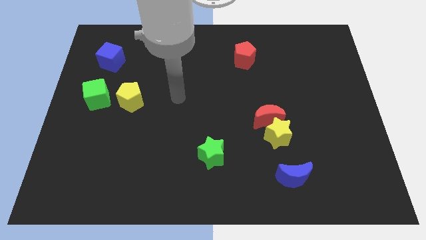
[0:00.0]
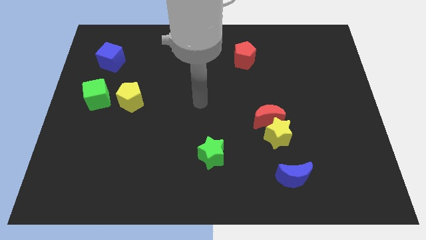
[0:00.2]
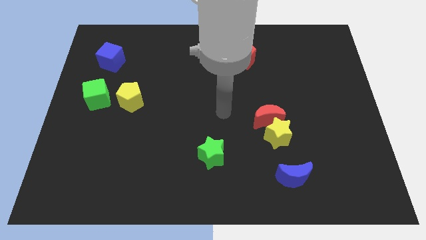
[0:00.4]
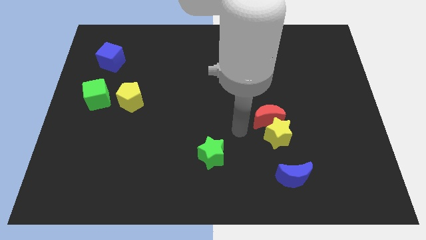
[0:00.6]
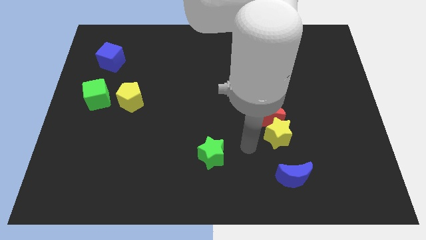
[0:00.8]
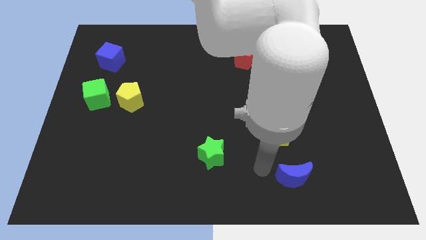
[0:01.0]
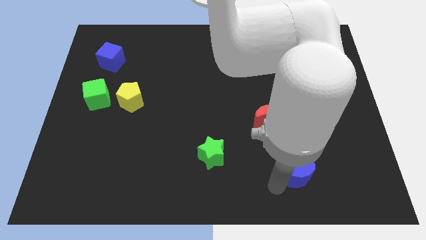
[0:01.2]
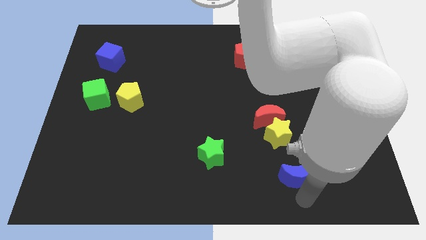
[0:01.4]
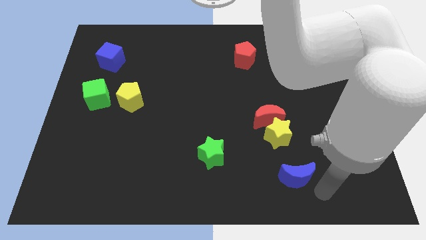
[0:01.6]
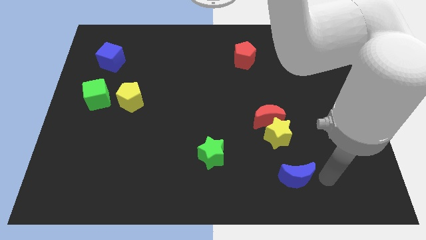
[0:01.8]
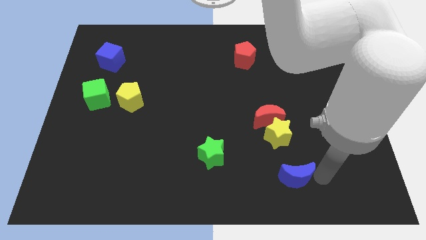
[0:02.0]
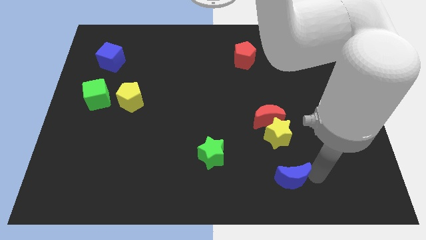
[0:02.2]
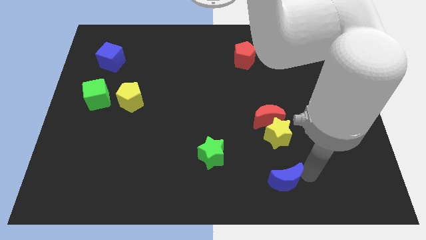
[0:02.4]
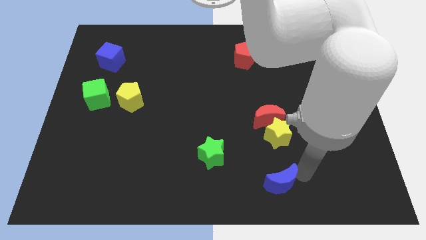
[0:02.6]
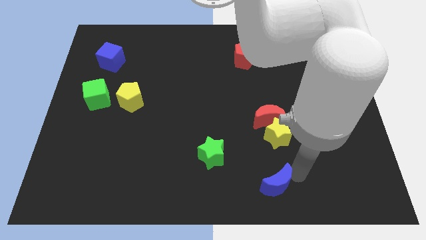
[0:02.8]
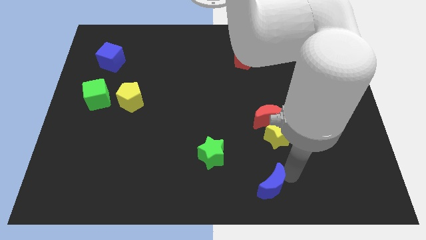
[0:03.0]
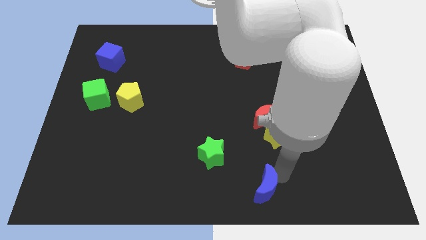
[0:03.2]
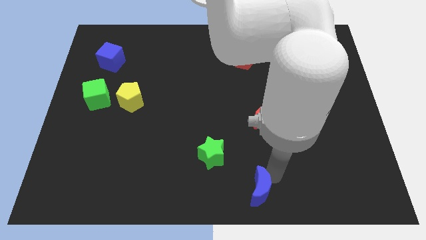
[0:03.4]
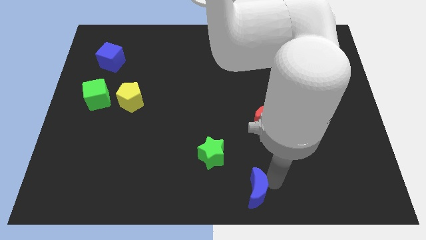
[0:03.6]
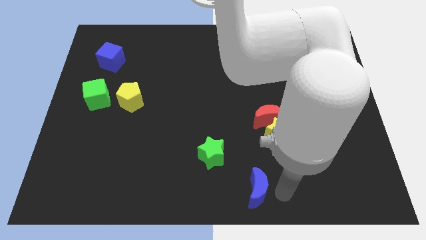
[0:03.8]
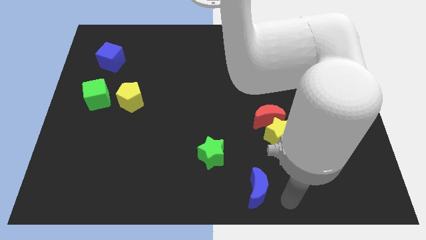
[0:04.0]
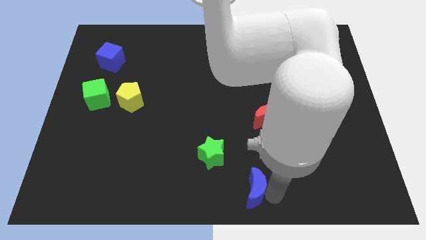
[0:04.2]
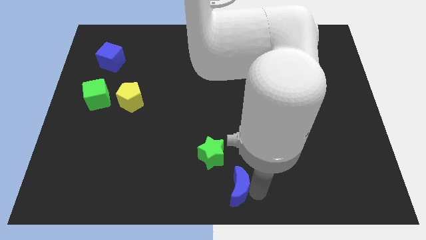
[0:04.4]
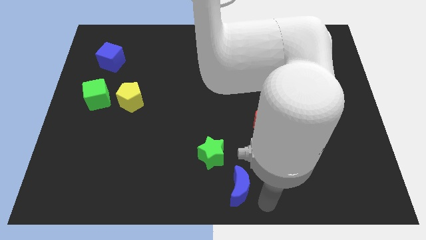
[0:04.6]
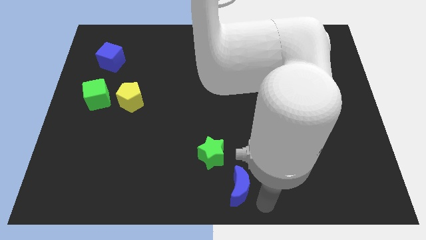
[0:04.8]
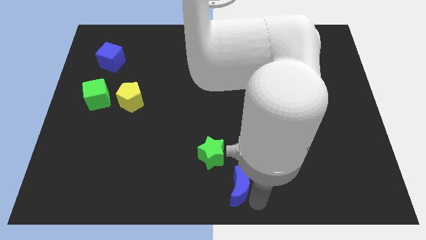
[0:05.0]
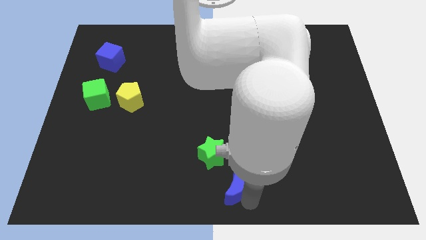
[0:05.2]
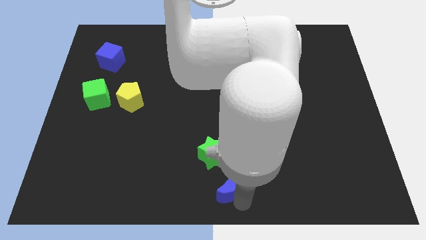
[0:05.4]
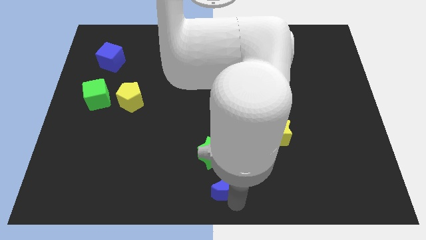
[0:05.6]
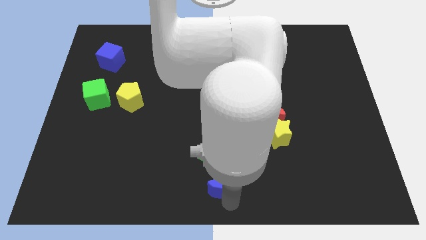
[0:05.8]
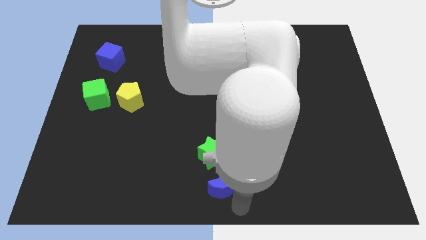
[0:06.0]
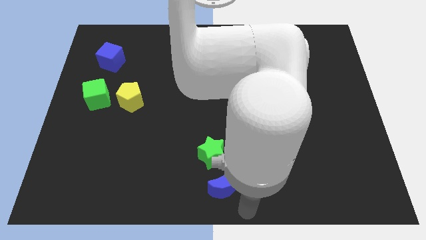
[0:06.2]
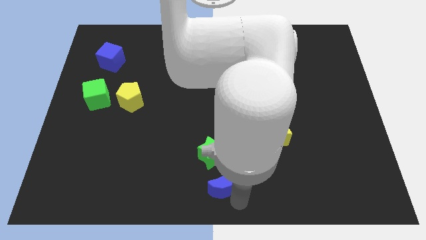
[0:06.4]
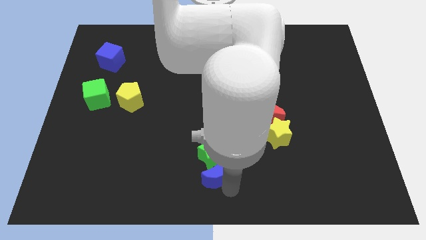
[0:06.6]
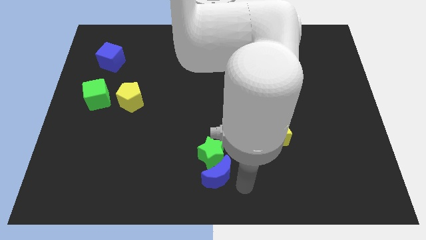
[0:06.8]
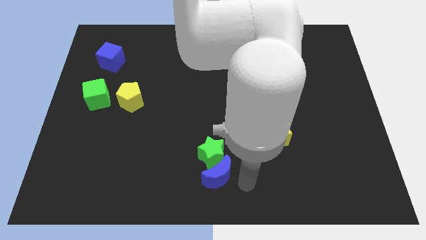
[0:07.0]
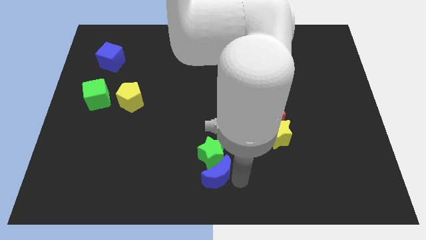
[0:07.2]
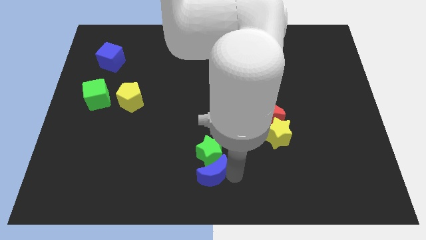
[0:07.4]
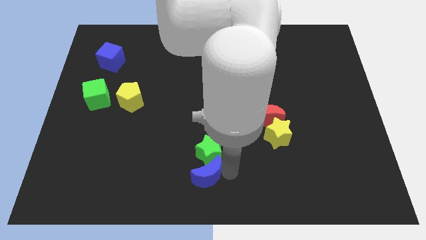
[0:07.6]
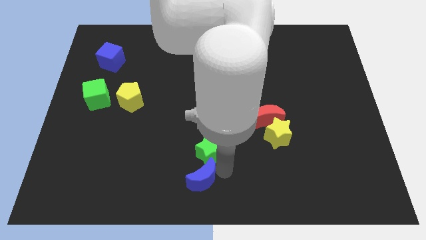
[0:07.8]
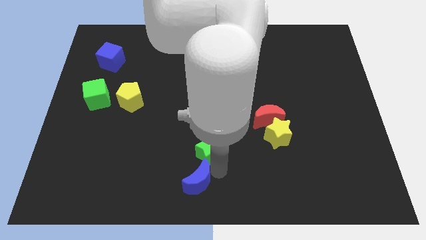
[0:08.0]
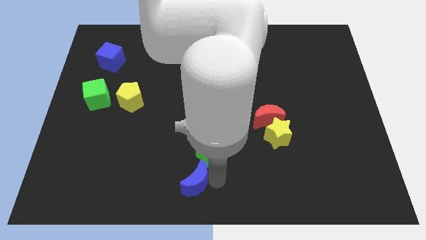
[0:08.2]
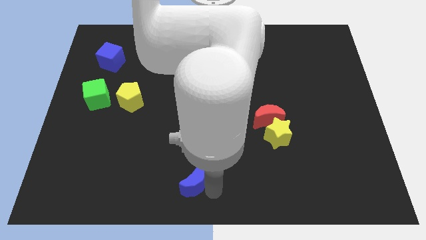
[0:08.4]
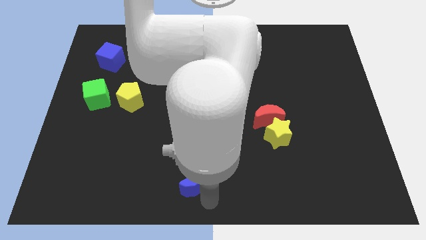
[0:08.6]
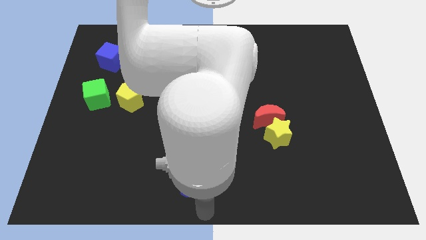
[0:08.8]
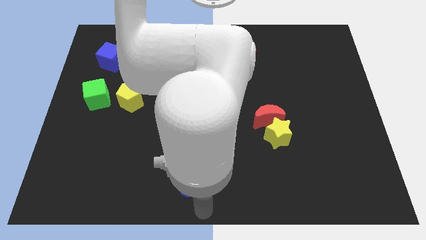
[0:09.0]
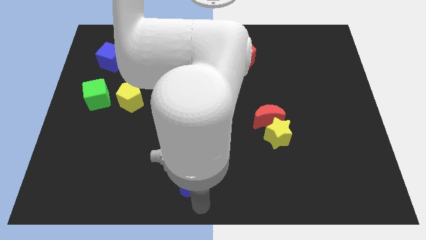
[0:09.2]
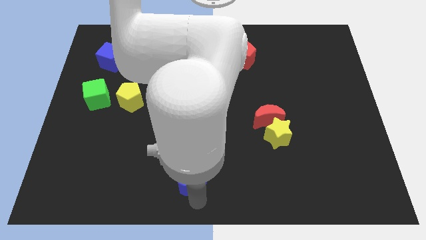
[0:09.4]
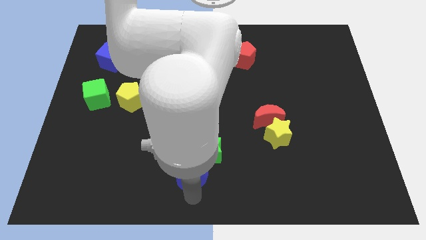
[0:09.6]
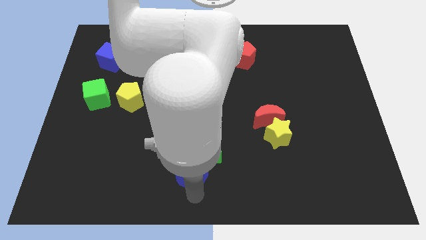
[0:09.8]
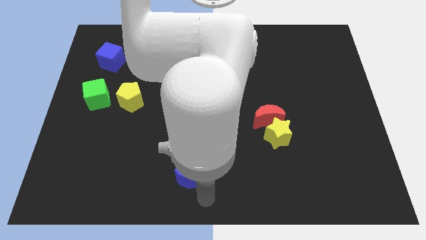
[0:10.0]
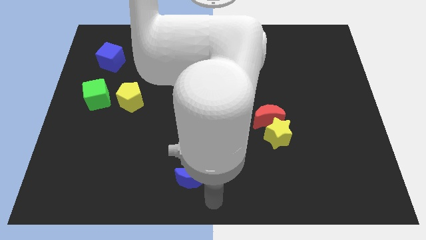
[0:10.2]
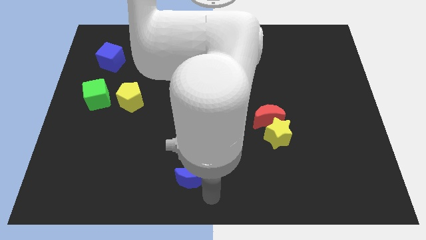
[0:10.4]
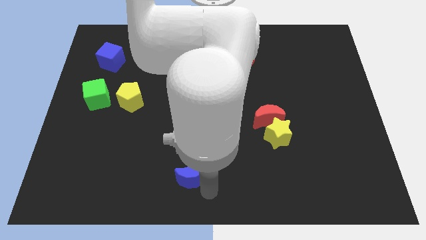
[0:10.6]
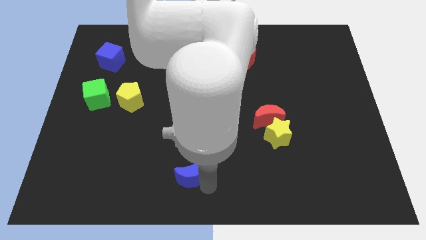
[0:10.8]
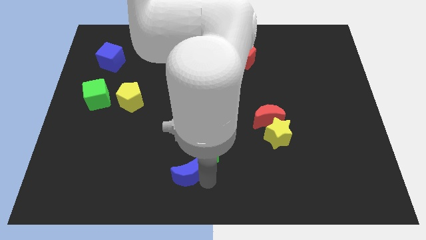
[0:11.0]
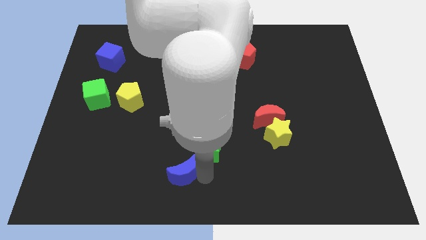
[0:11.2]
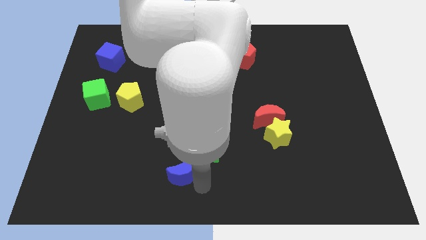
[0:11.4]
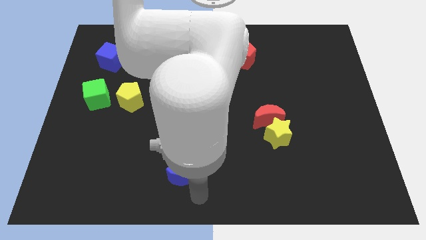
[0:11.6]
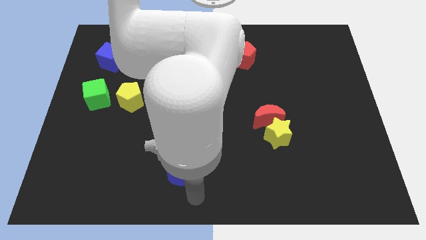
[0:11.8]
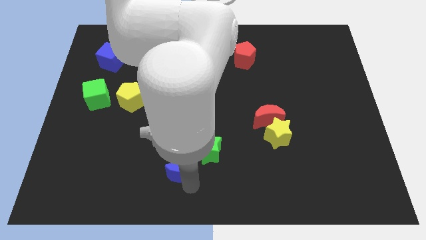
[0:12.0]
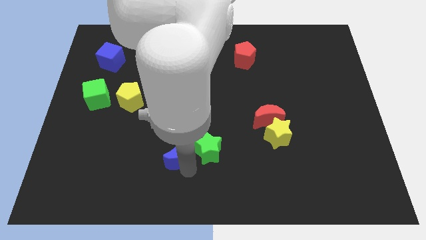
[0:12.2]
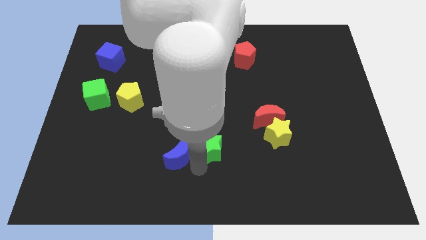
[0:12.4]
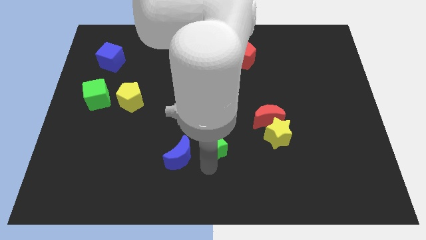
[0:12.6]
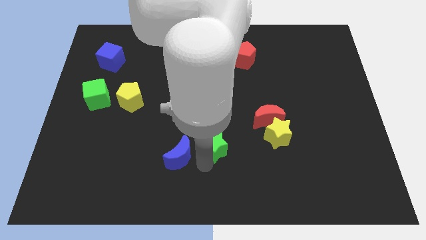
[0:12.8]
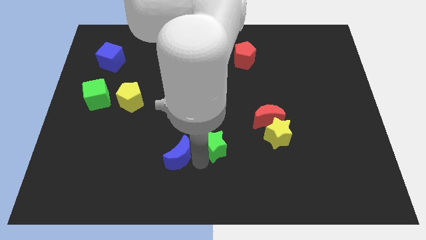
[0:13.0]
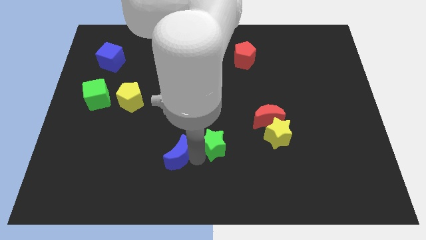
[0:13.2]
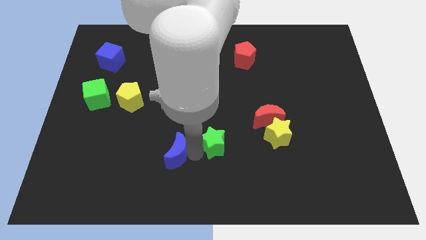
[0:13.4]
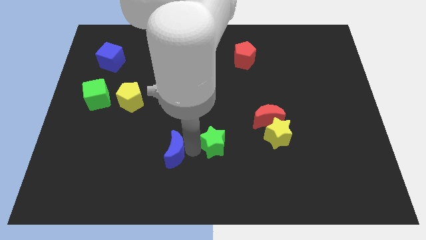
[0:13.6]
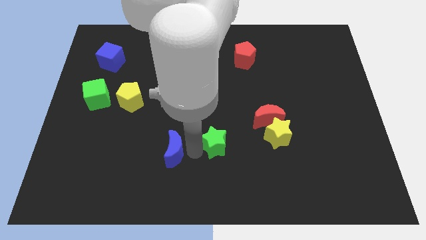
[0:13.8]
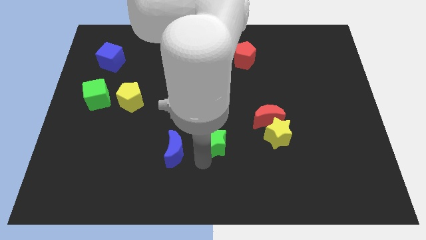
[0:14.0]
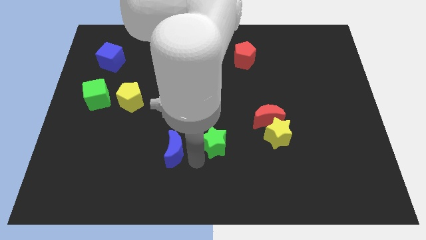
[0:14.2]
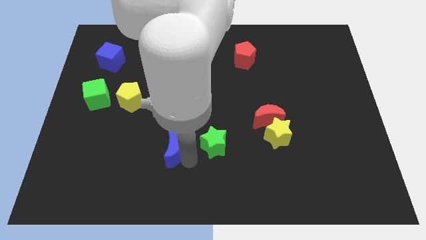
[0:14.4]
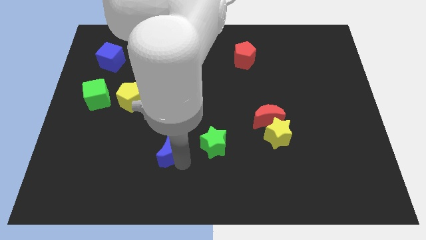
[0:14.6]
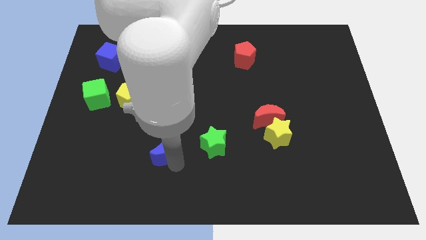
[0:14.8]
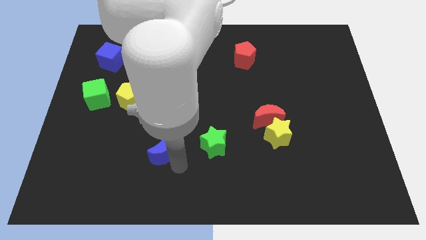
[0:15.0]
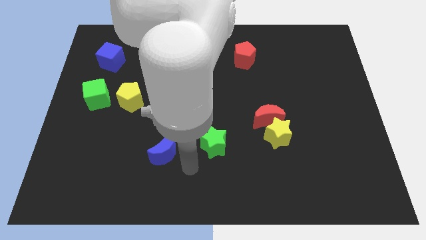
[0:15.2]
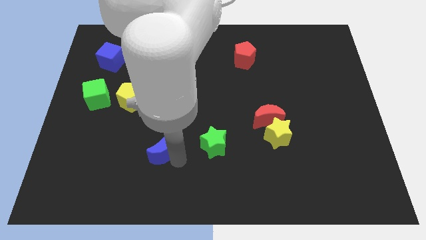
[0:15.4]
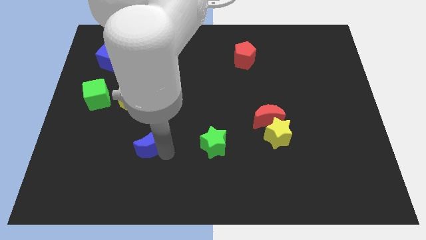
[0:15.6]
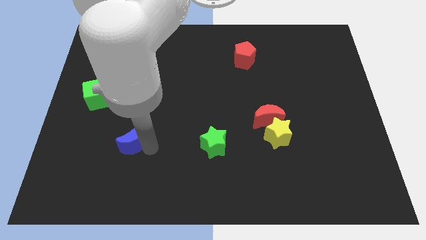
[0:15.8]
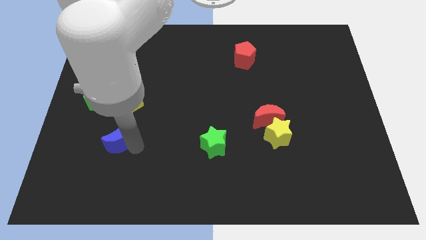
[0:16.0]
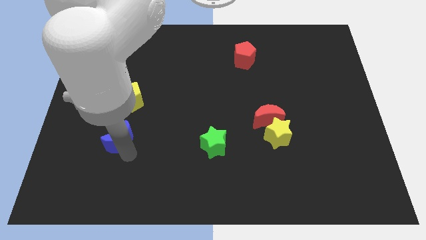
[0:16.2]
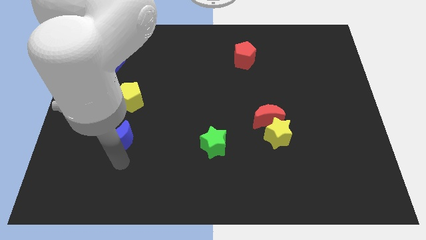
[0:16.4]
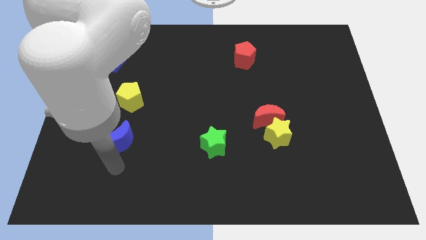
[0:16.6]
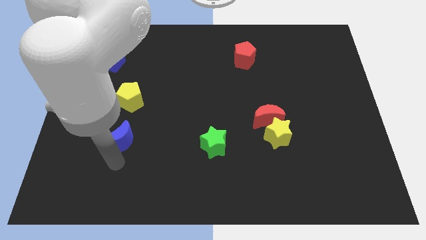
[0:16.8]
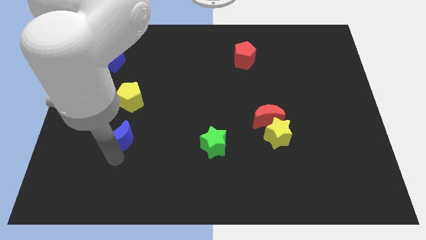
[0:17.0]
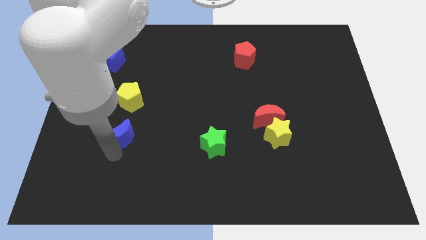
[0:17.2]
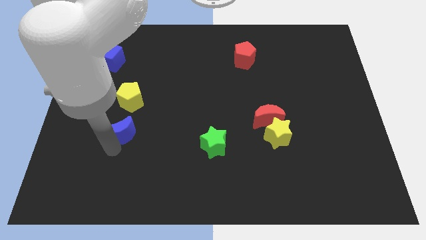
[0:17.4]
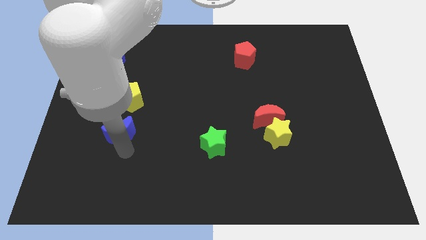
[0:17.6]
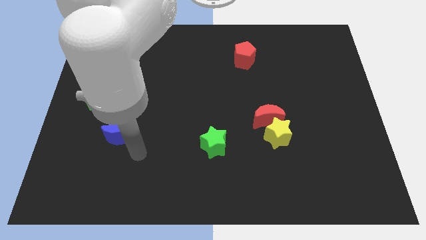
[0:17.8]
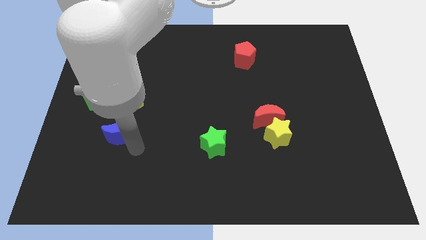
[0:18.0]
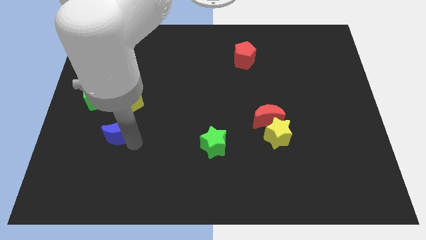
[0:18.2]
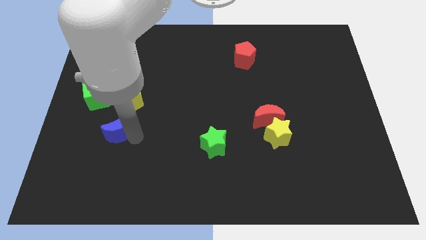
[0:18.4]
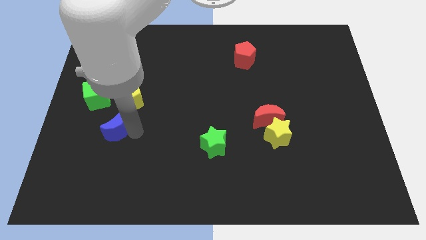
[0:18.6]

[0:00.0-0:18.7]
move the blue moon diagonally down and to the left of the yellow pentagon
